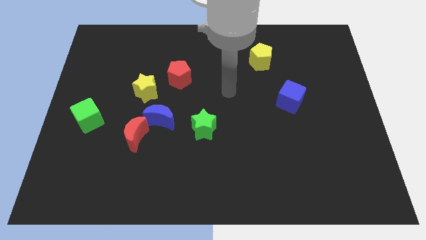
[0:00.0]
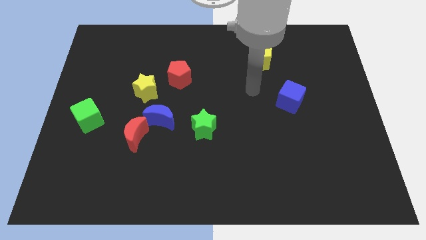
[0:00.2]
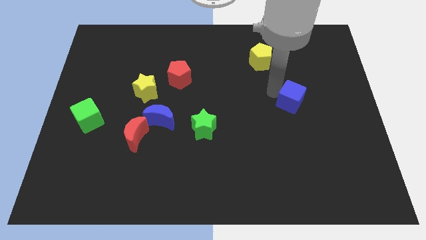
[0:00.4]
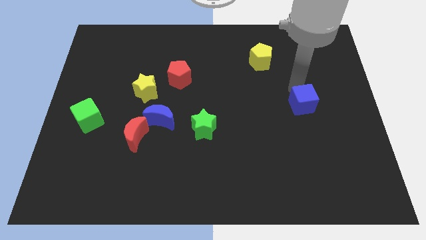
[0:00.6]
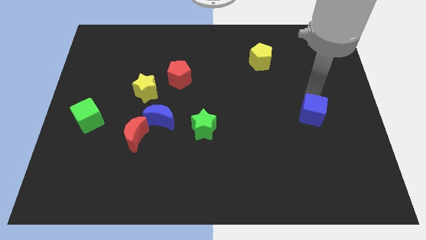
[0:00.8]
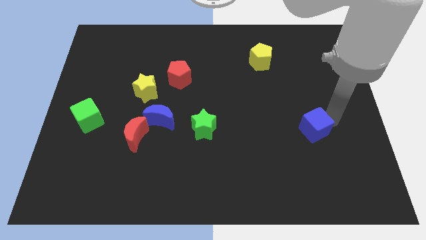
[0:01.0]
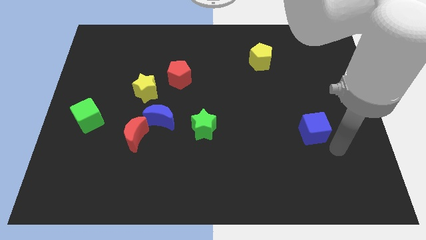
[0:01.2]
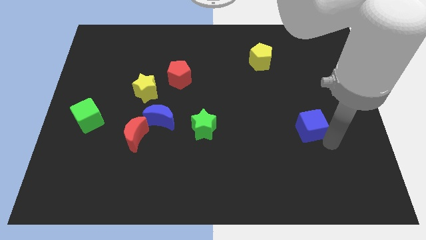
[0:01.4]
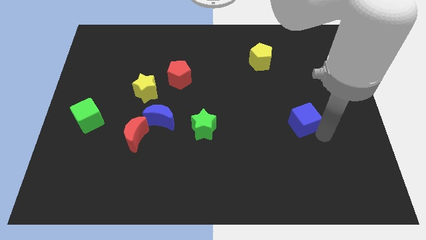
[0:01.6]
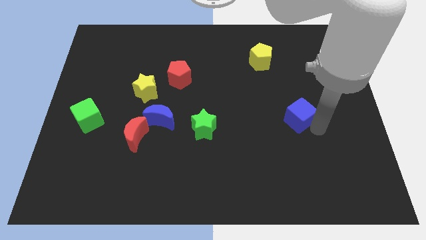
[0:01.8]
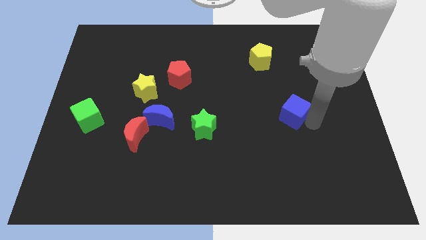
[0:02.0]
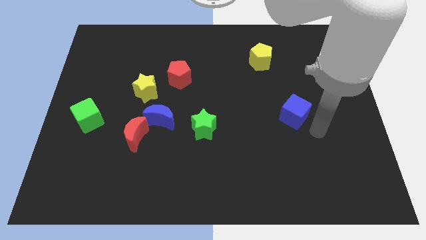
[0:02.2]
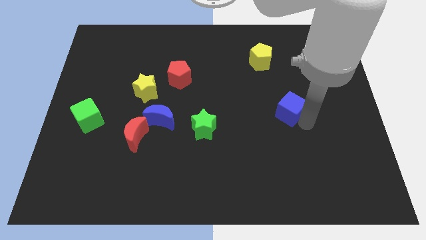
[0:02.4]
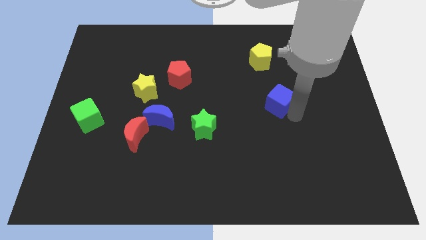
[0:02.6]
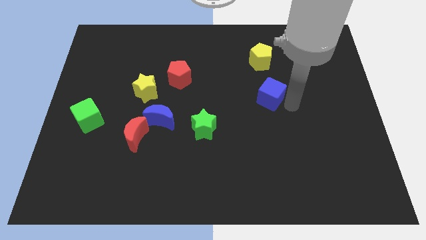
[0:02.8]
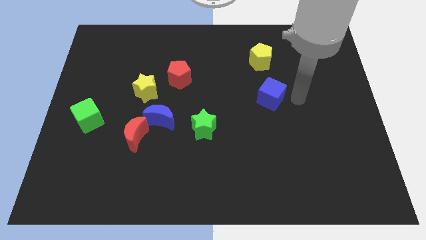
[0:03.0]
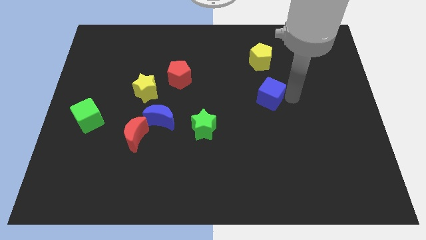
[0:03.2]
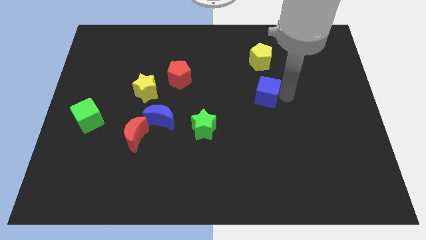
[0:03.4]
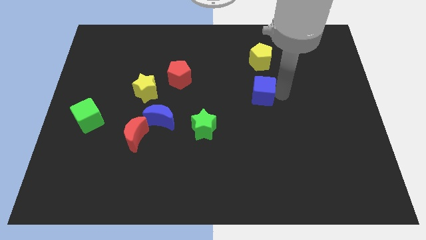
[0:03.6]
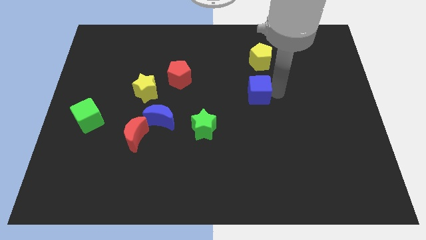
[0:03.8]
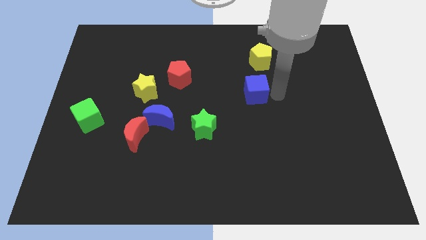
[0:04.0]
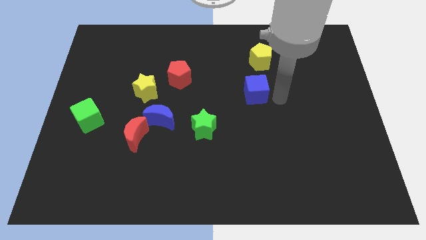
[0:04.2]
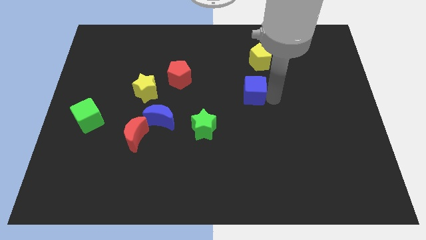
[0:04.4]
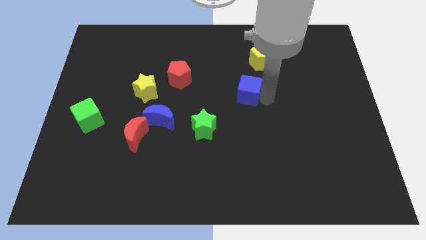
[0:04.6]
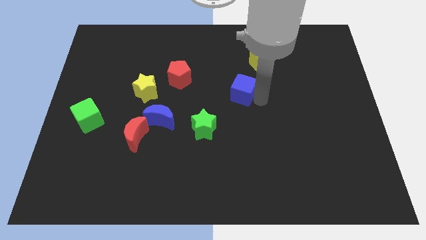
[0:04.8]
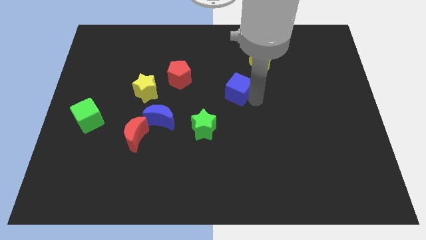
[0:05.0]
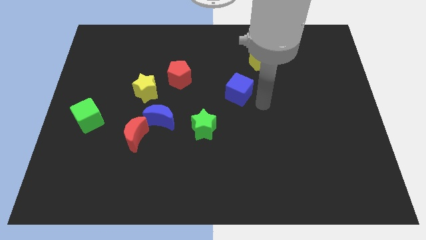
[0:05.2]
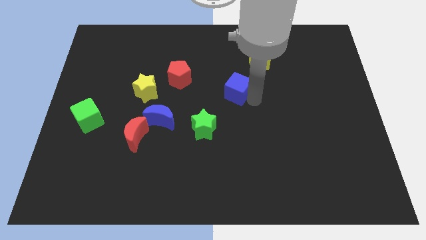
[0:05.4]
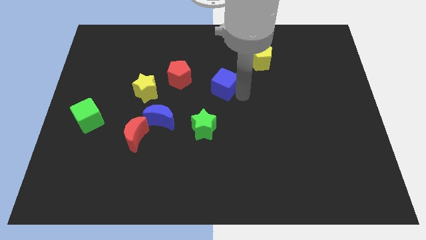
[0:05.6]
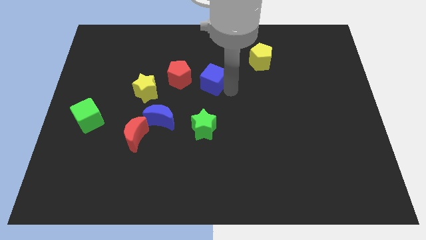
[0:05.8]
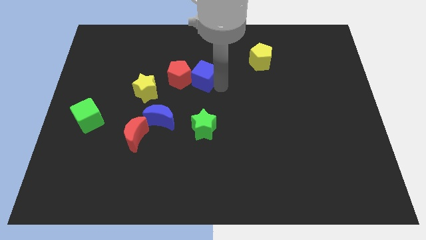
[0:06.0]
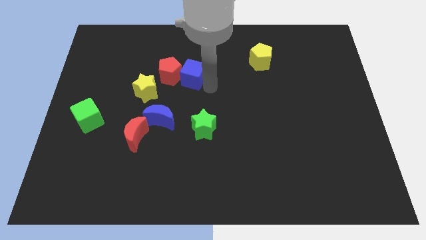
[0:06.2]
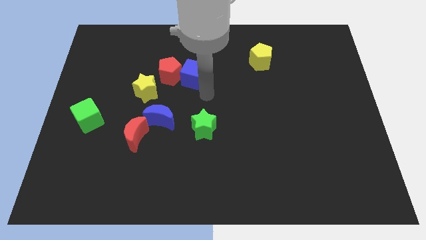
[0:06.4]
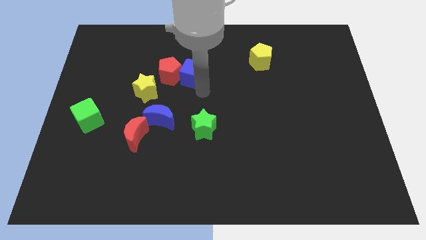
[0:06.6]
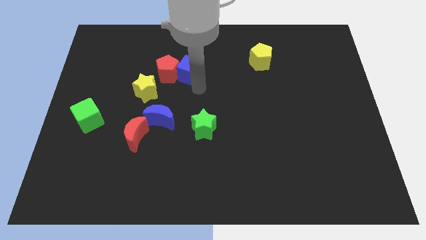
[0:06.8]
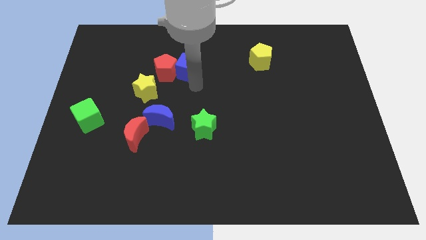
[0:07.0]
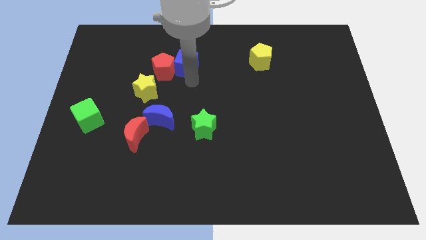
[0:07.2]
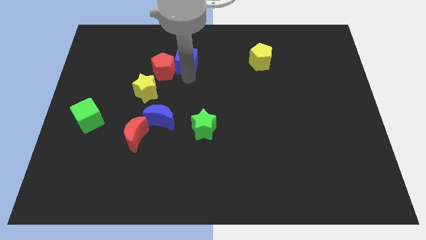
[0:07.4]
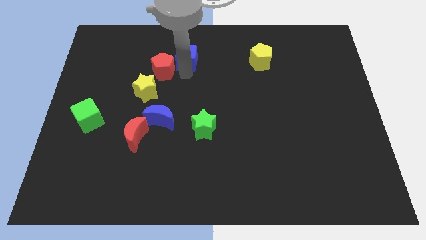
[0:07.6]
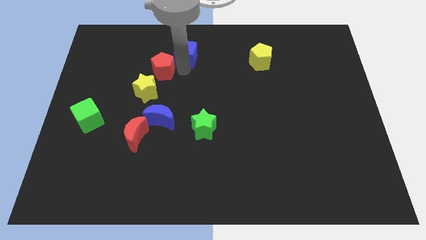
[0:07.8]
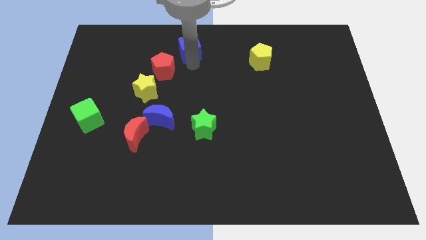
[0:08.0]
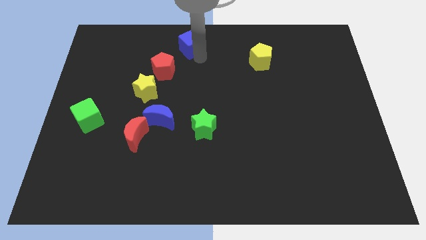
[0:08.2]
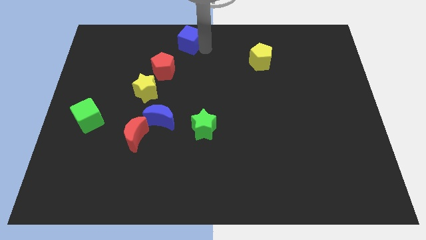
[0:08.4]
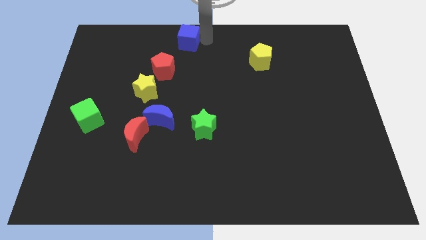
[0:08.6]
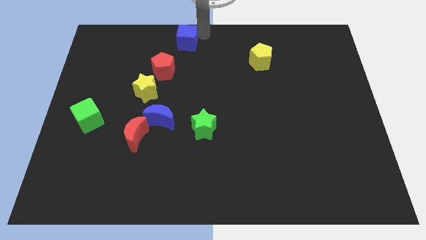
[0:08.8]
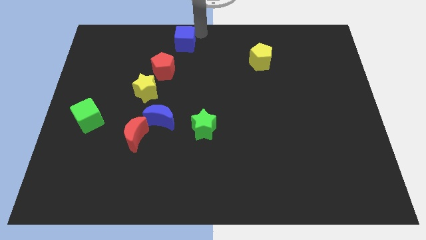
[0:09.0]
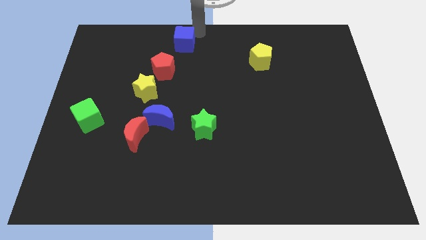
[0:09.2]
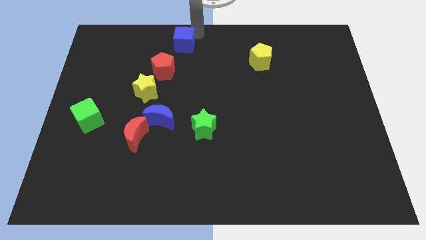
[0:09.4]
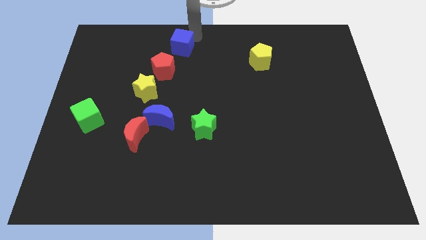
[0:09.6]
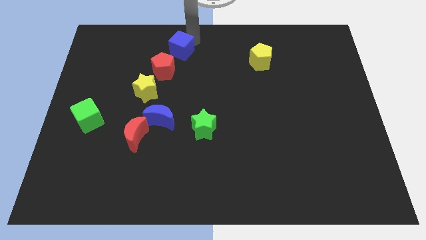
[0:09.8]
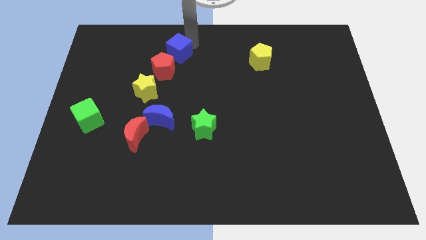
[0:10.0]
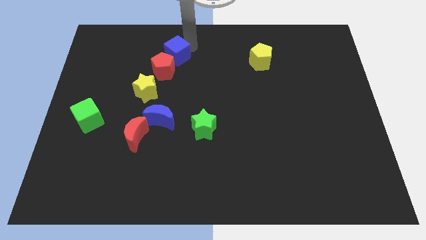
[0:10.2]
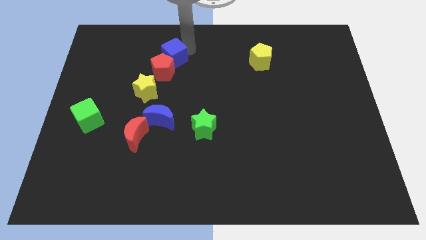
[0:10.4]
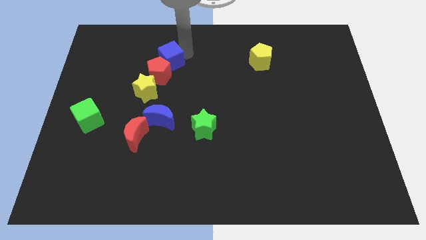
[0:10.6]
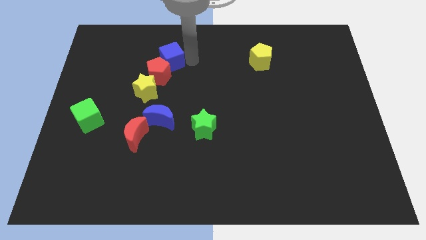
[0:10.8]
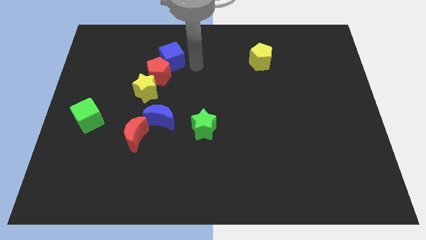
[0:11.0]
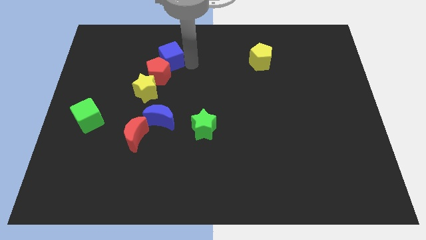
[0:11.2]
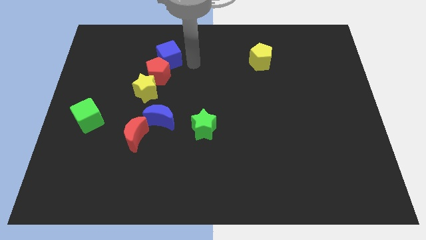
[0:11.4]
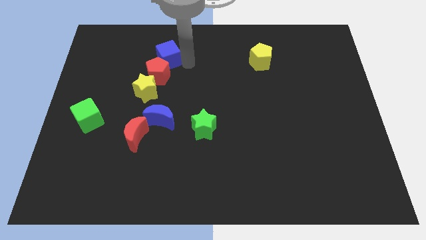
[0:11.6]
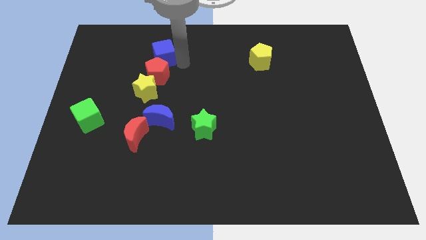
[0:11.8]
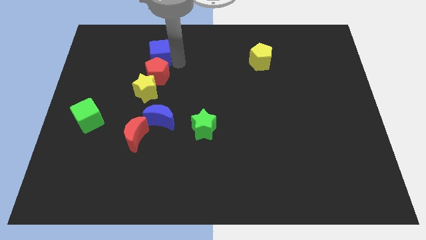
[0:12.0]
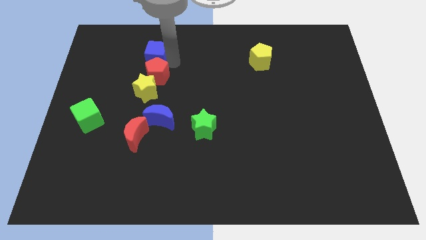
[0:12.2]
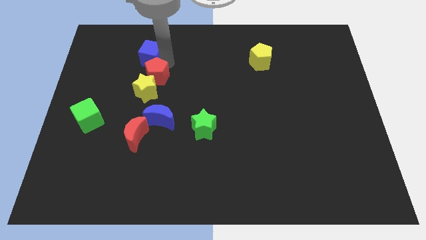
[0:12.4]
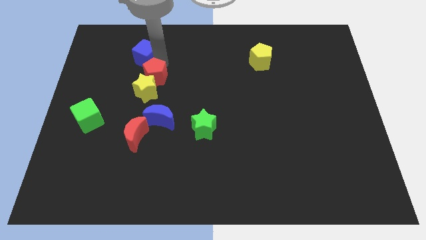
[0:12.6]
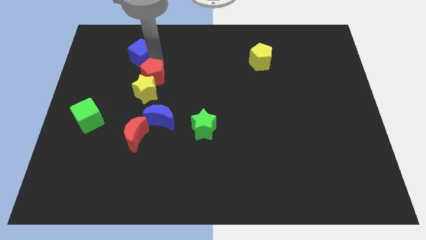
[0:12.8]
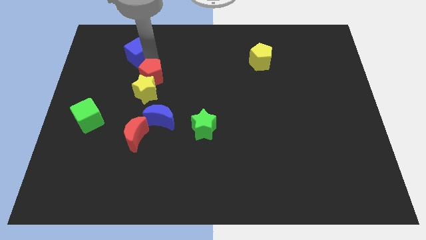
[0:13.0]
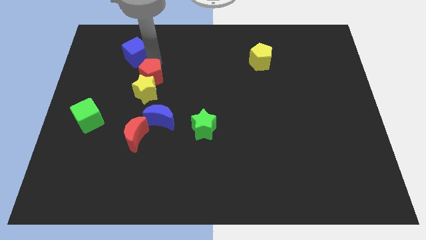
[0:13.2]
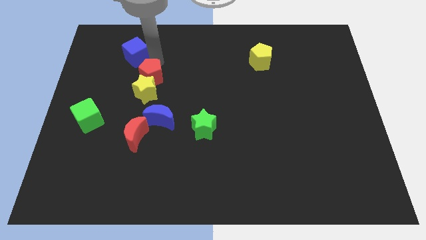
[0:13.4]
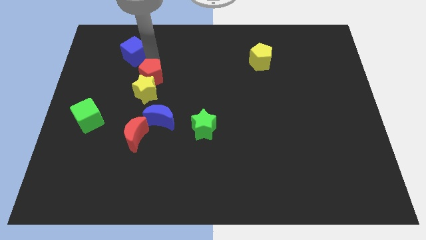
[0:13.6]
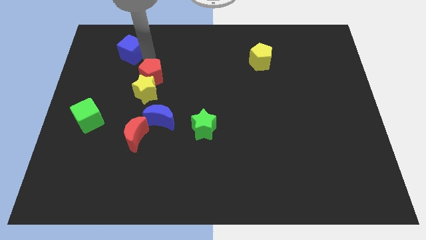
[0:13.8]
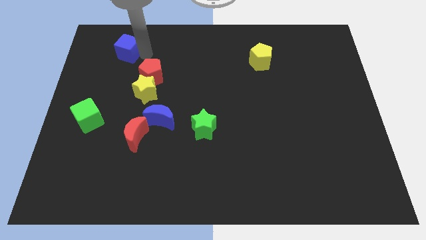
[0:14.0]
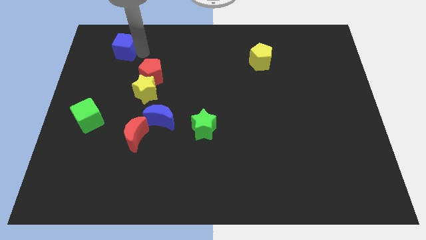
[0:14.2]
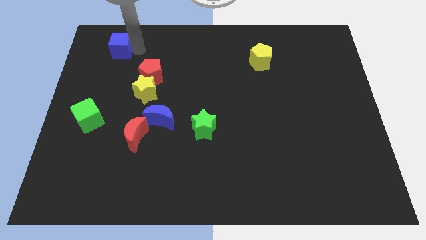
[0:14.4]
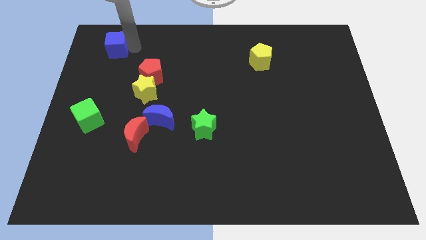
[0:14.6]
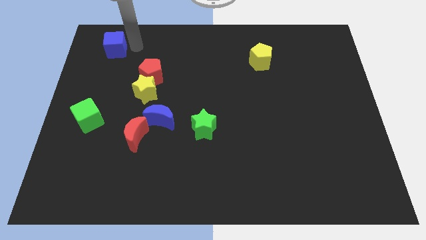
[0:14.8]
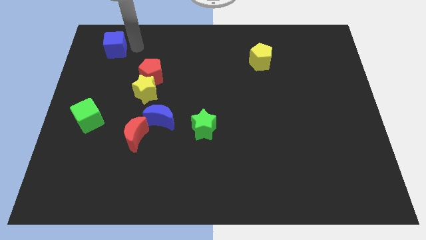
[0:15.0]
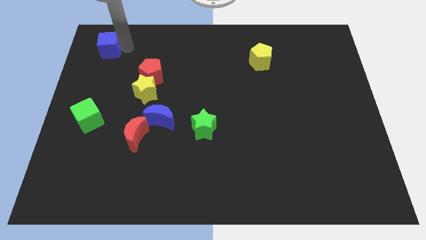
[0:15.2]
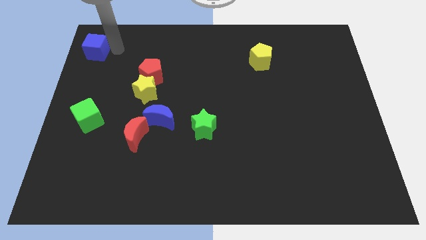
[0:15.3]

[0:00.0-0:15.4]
put the blue cube to the upper left corner
